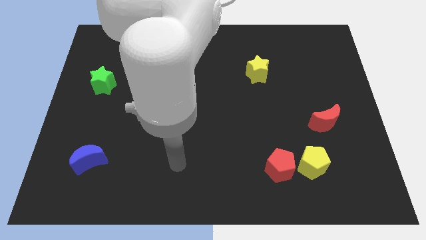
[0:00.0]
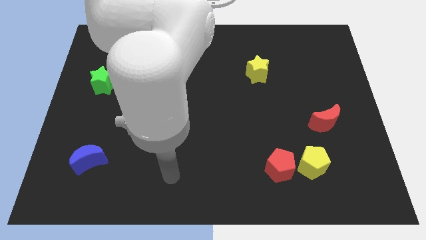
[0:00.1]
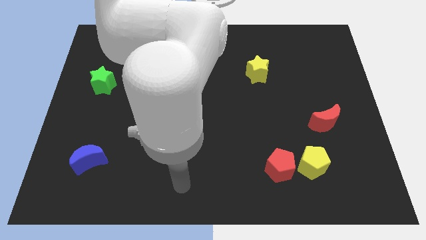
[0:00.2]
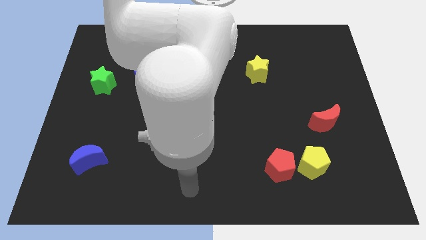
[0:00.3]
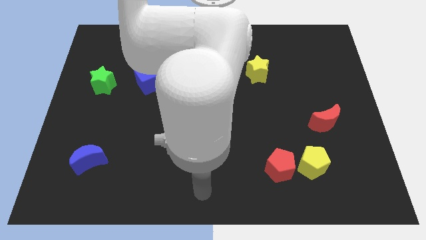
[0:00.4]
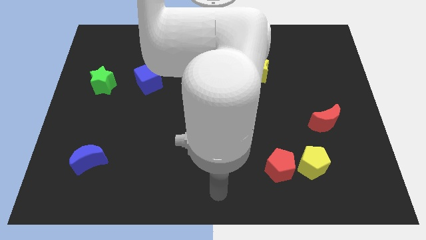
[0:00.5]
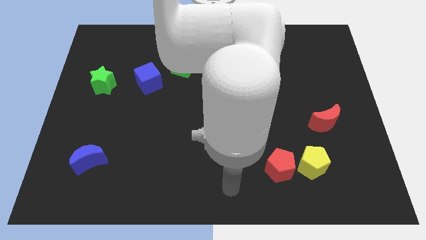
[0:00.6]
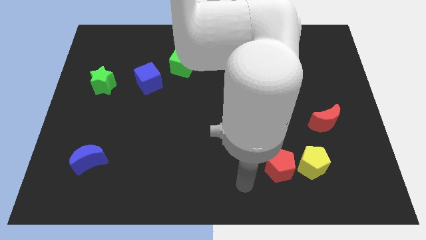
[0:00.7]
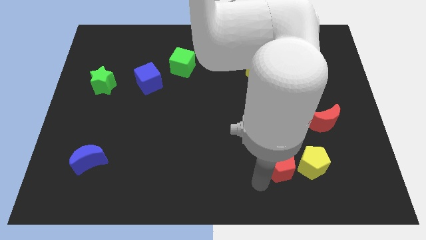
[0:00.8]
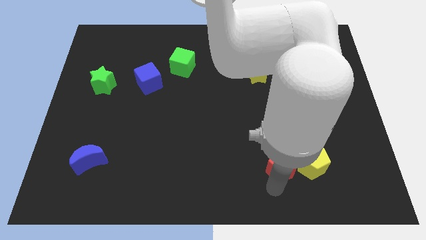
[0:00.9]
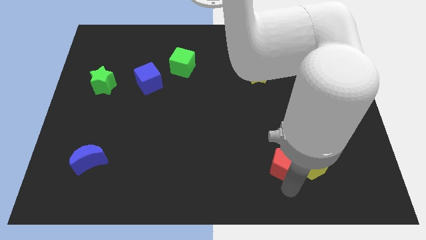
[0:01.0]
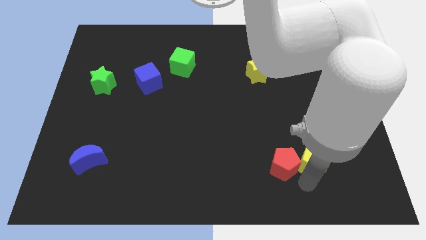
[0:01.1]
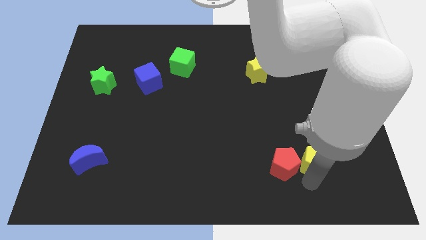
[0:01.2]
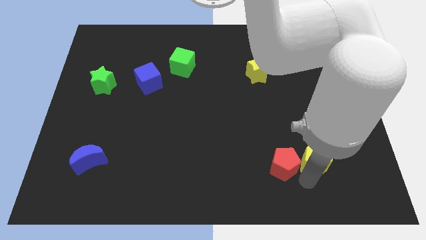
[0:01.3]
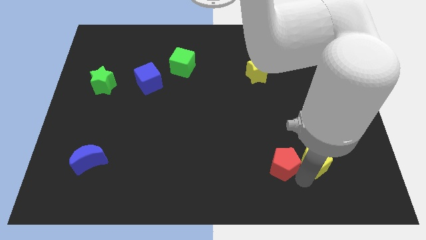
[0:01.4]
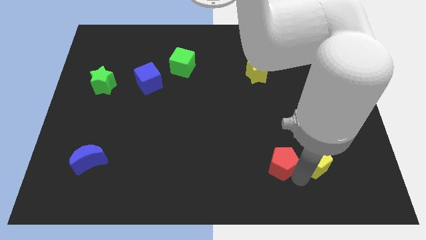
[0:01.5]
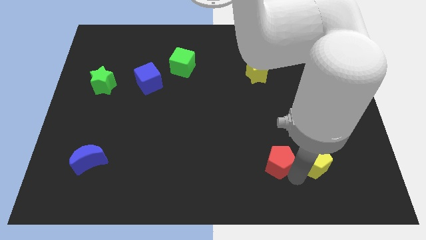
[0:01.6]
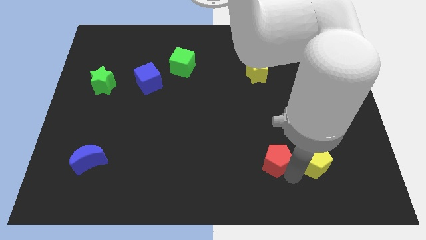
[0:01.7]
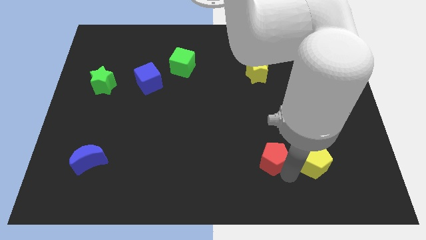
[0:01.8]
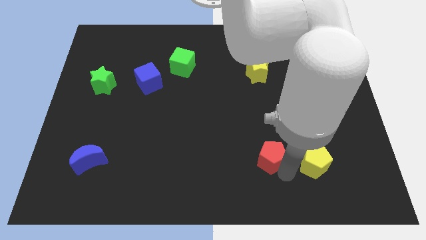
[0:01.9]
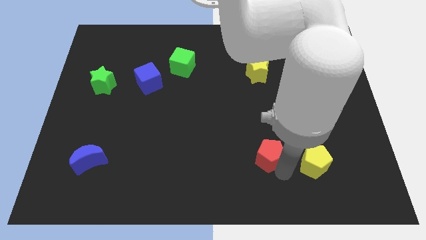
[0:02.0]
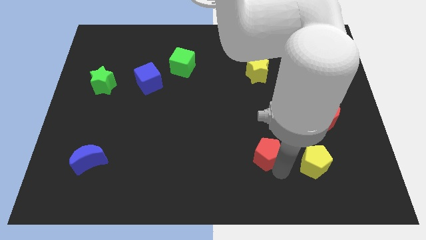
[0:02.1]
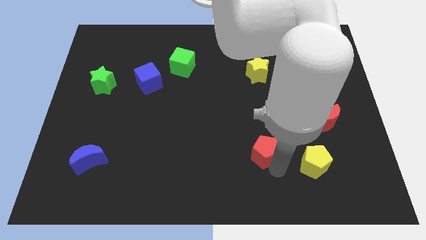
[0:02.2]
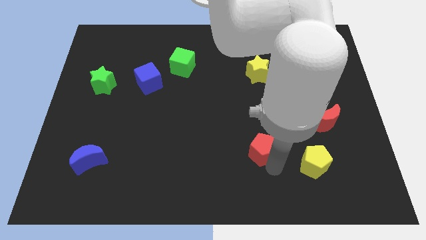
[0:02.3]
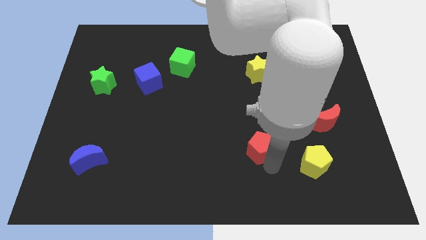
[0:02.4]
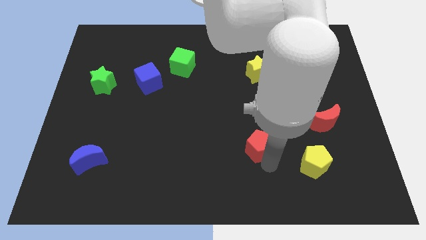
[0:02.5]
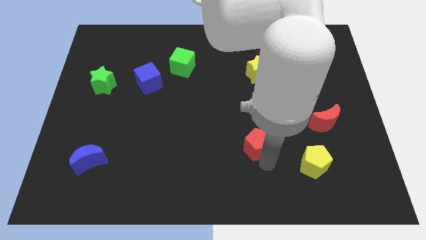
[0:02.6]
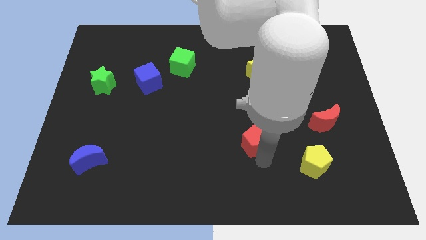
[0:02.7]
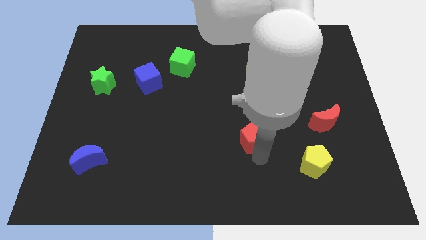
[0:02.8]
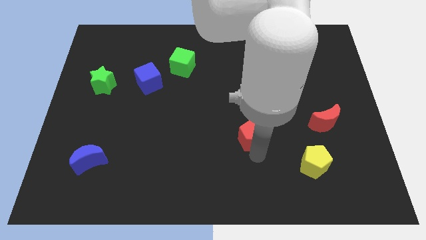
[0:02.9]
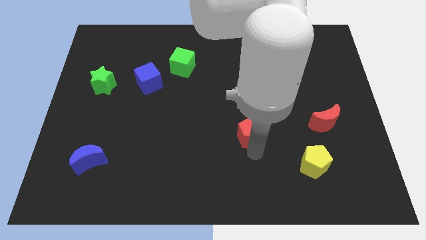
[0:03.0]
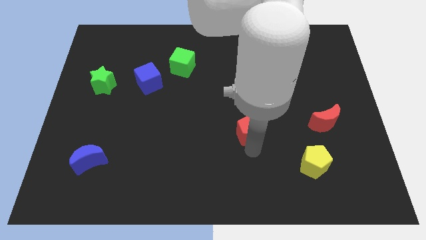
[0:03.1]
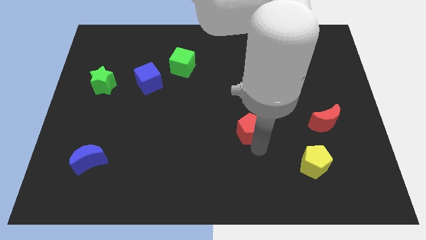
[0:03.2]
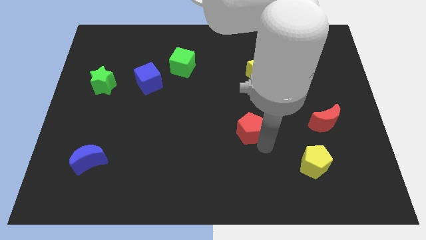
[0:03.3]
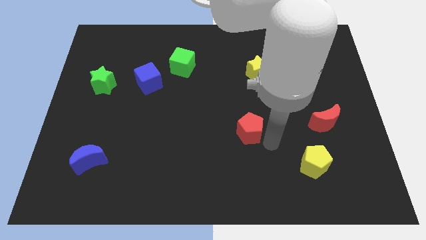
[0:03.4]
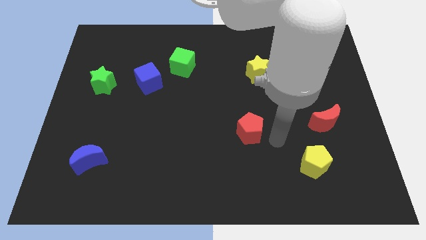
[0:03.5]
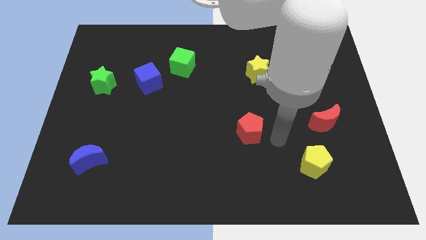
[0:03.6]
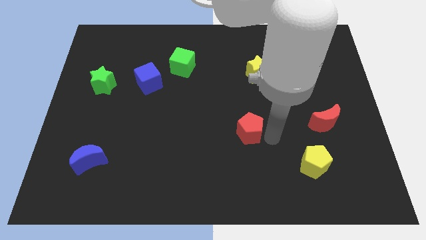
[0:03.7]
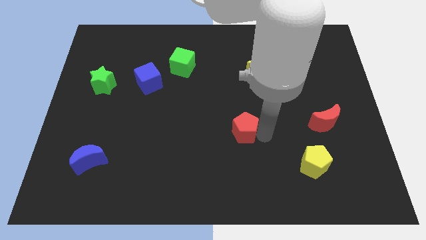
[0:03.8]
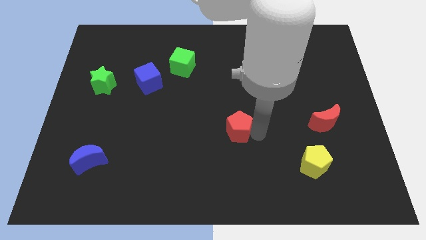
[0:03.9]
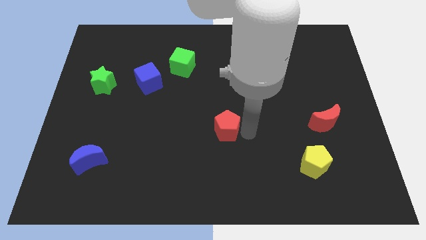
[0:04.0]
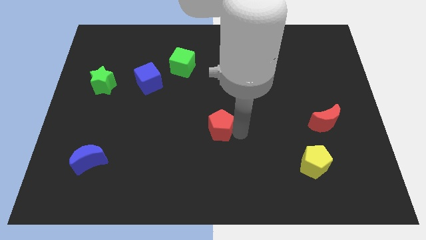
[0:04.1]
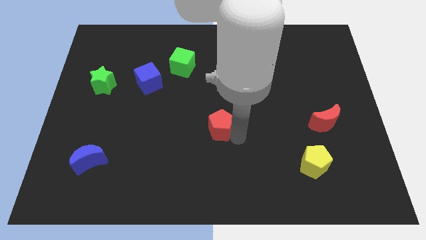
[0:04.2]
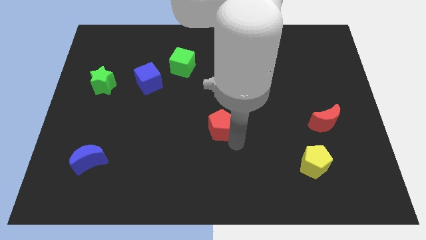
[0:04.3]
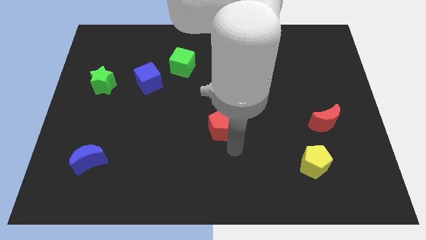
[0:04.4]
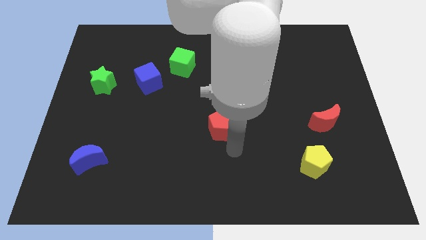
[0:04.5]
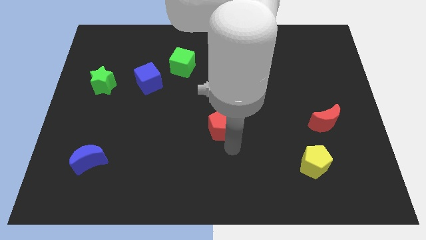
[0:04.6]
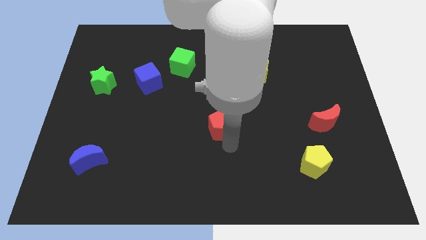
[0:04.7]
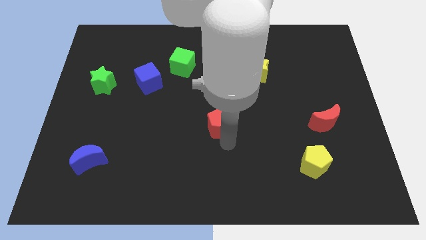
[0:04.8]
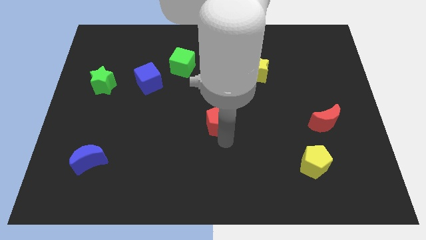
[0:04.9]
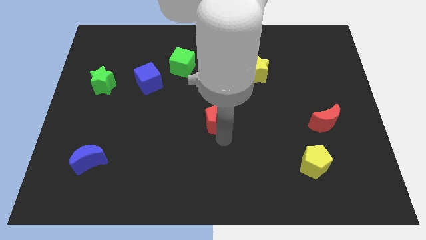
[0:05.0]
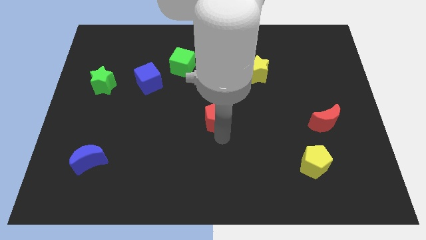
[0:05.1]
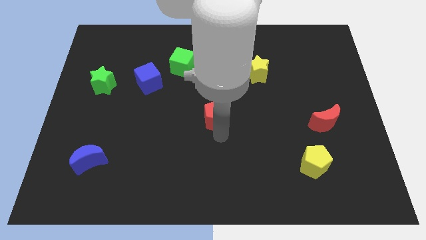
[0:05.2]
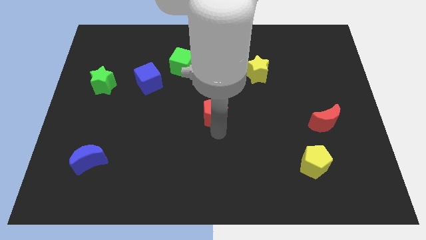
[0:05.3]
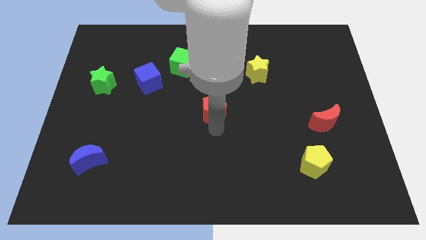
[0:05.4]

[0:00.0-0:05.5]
move the red pentagon up and to the left diagonally

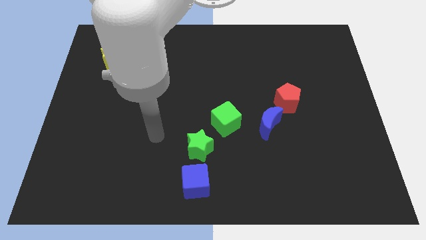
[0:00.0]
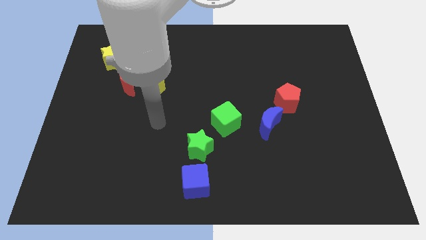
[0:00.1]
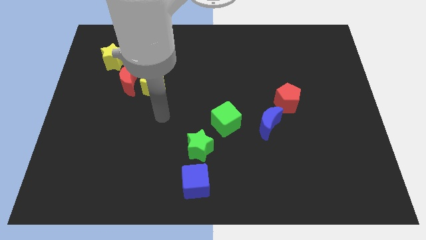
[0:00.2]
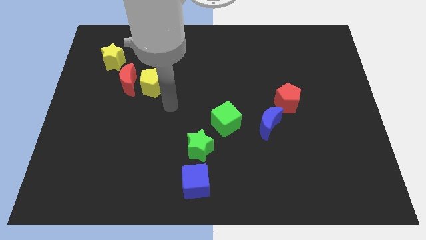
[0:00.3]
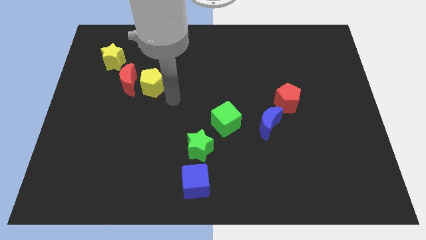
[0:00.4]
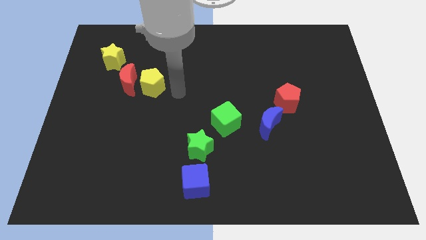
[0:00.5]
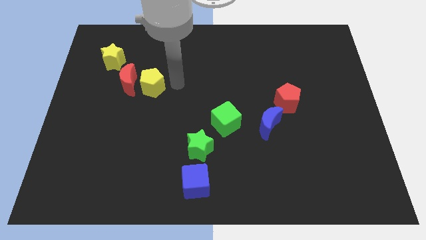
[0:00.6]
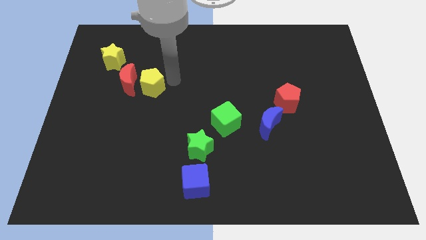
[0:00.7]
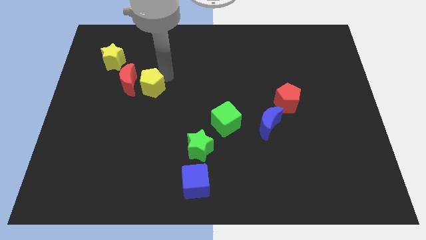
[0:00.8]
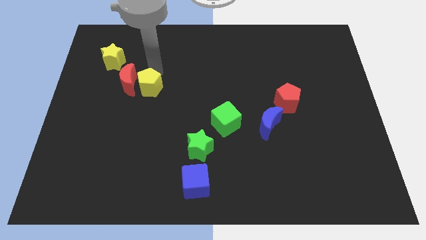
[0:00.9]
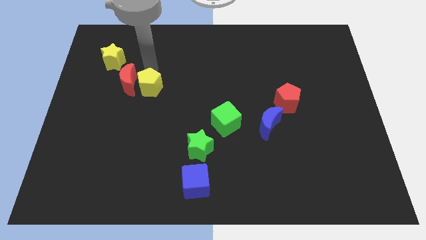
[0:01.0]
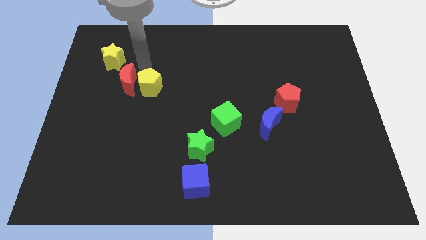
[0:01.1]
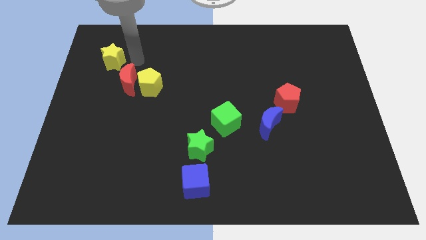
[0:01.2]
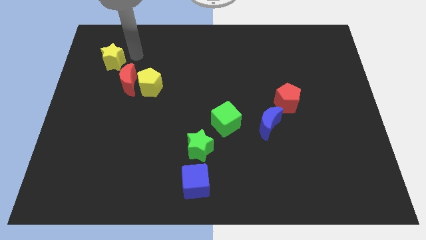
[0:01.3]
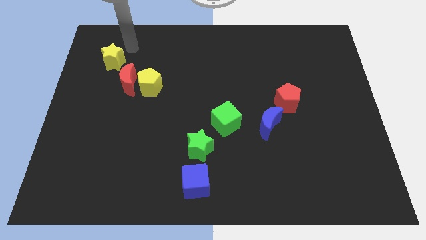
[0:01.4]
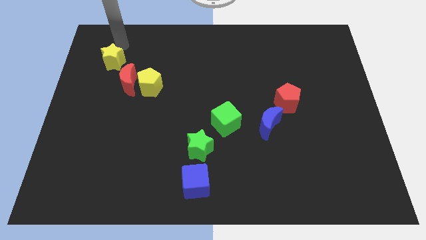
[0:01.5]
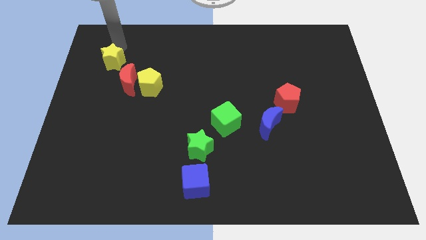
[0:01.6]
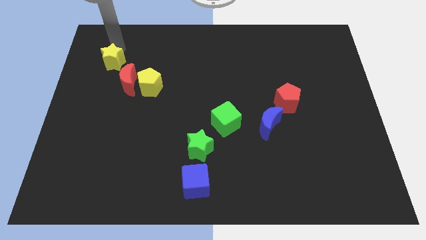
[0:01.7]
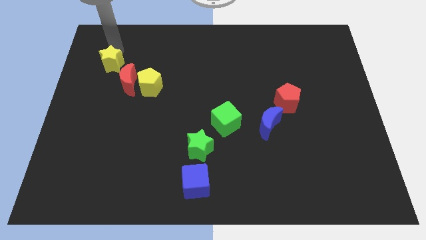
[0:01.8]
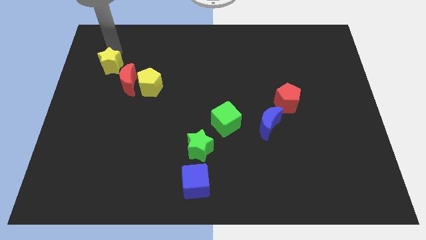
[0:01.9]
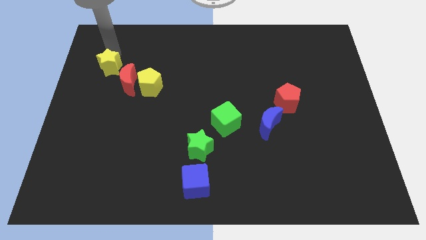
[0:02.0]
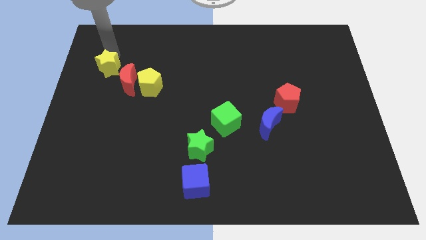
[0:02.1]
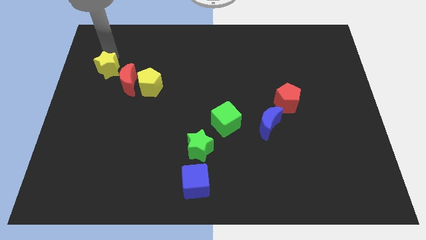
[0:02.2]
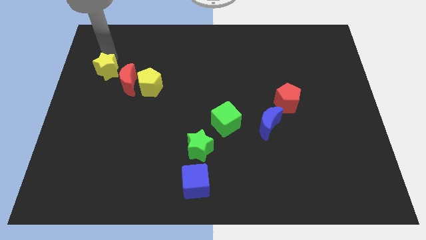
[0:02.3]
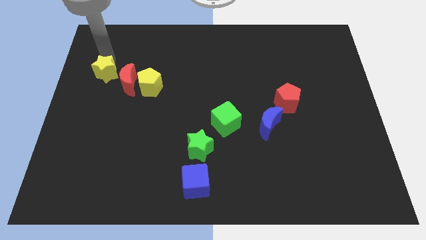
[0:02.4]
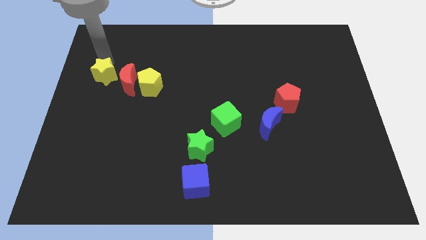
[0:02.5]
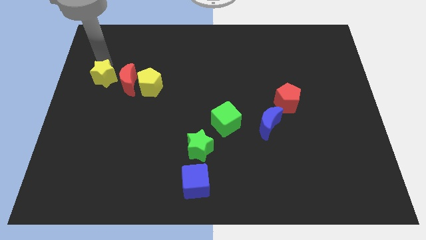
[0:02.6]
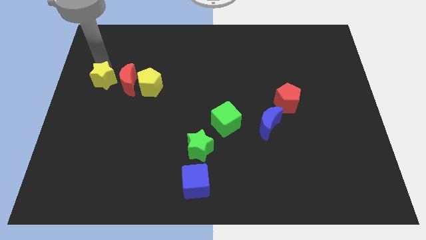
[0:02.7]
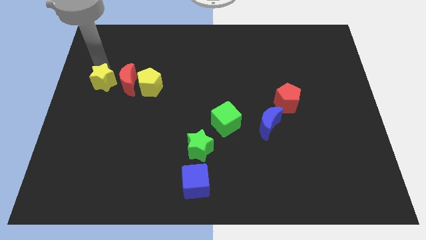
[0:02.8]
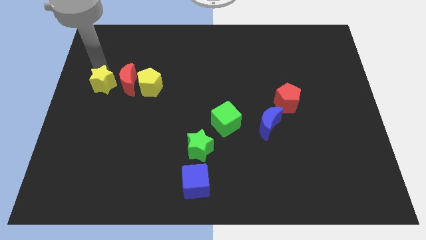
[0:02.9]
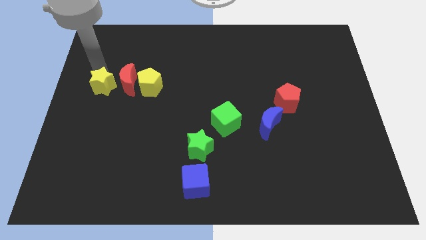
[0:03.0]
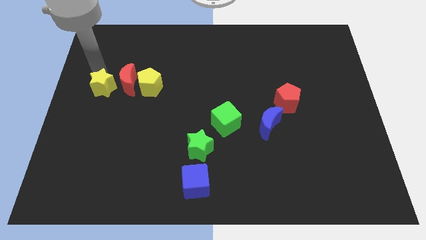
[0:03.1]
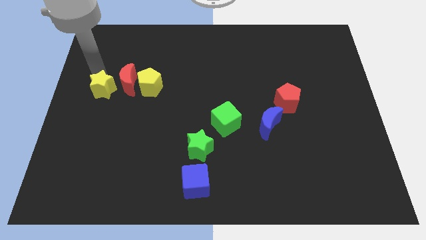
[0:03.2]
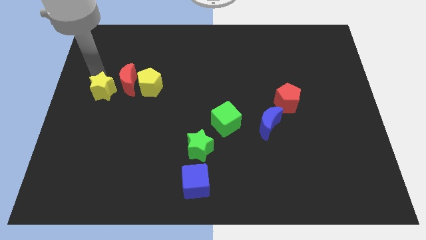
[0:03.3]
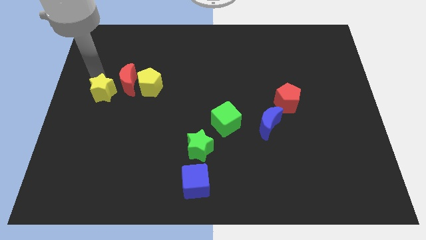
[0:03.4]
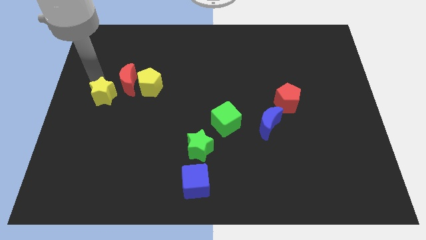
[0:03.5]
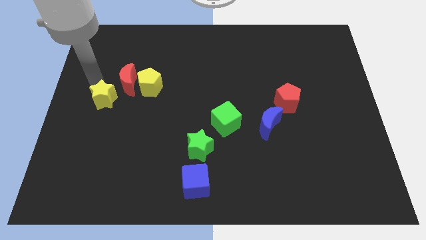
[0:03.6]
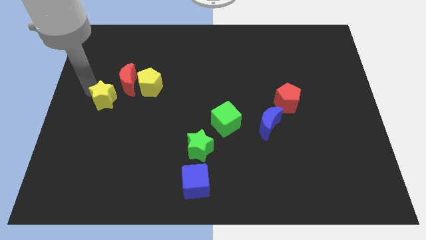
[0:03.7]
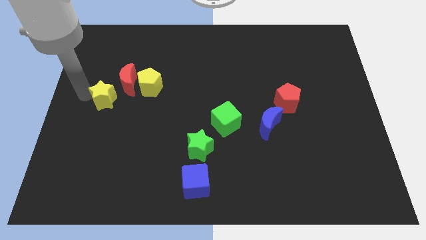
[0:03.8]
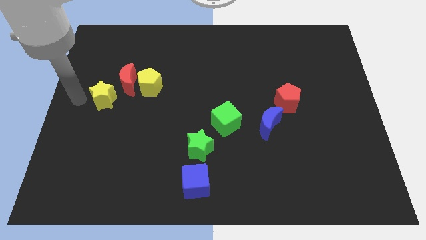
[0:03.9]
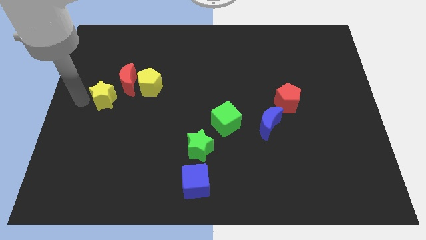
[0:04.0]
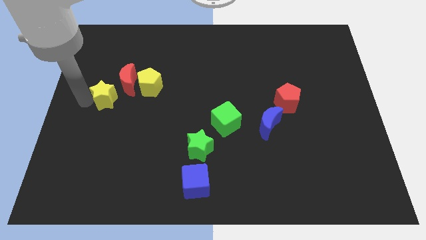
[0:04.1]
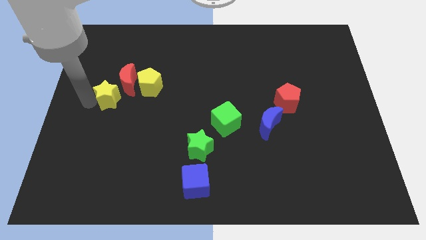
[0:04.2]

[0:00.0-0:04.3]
move the yellow star down and then right a little bit
